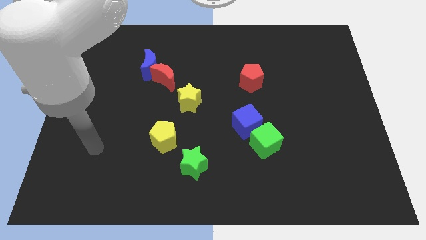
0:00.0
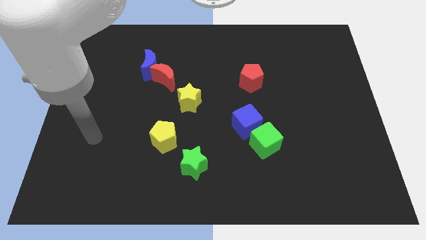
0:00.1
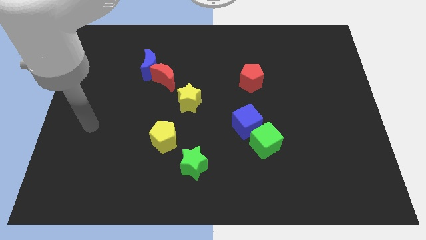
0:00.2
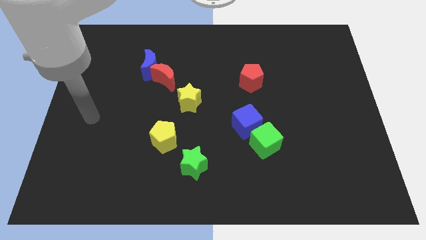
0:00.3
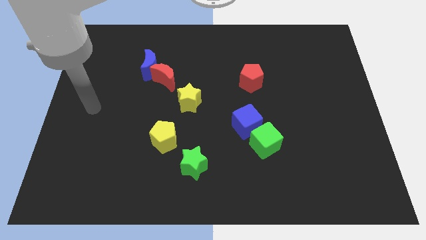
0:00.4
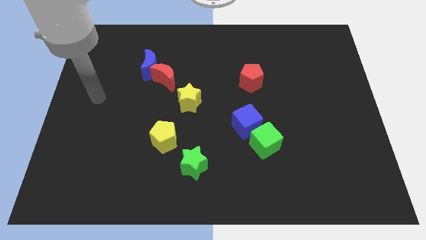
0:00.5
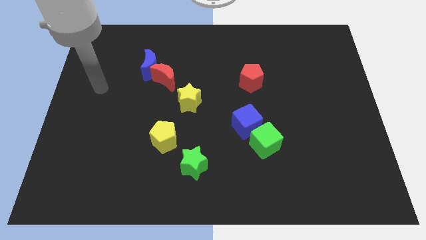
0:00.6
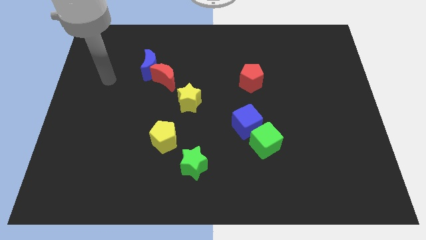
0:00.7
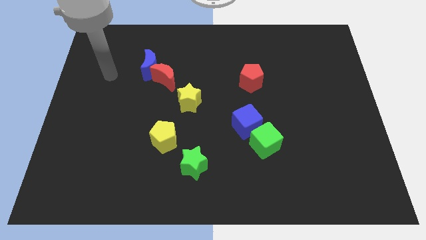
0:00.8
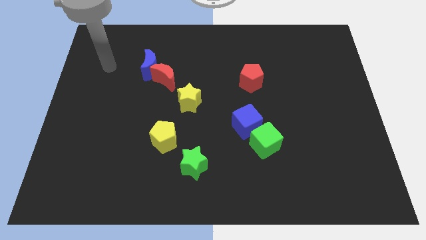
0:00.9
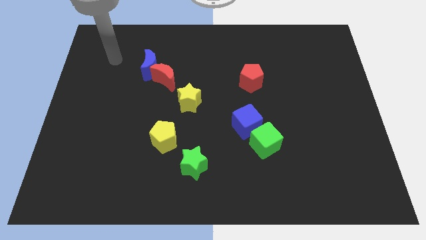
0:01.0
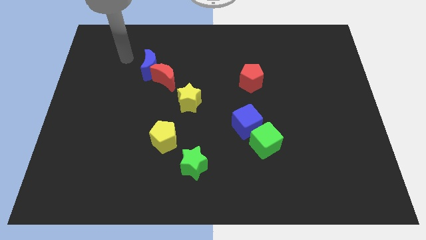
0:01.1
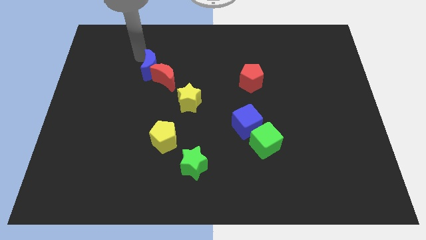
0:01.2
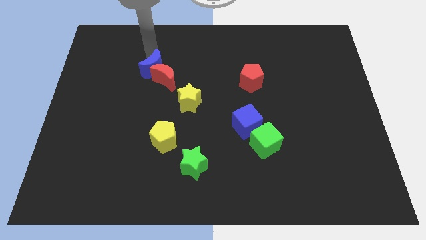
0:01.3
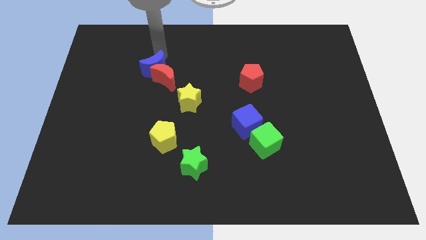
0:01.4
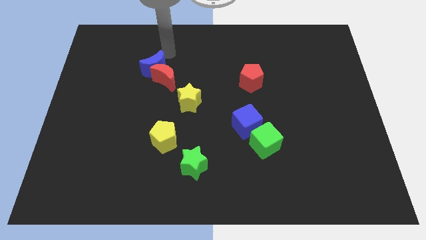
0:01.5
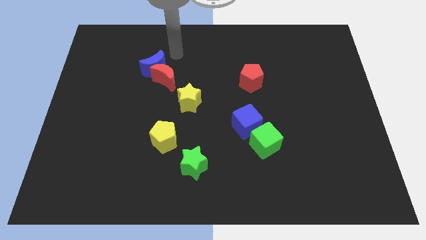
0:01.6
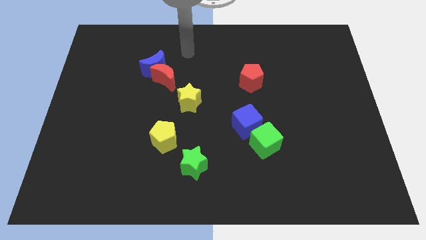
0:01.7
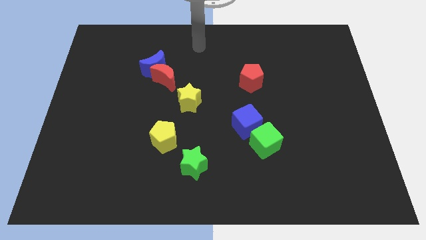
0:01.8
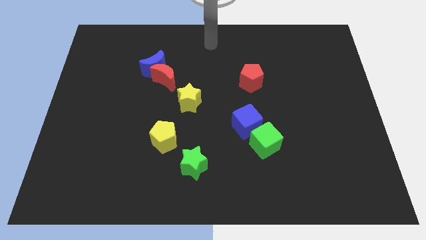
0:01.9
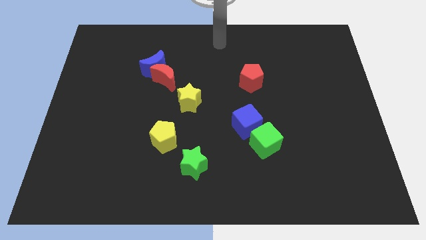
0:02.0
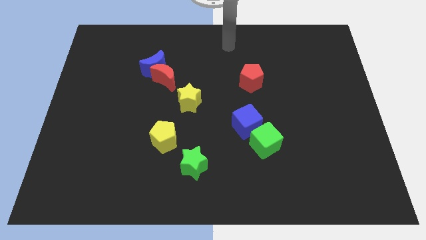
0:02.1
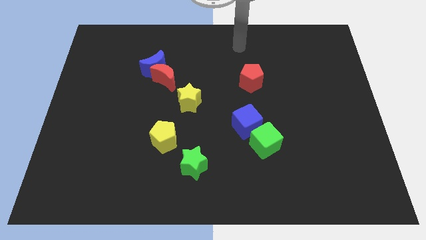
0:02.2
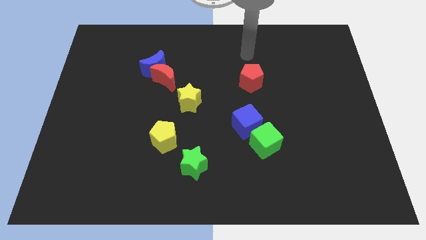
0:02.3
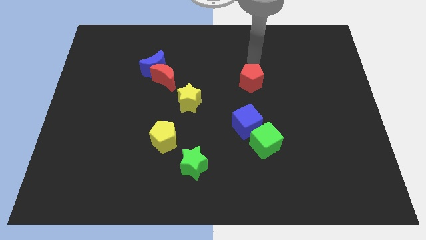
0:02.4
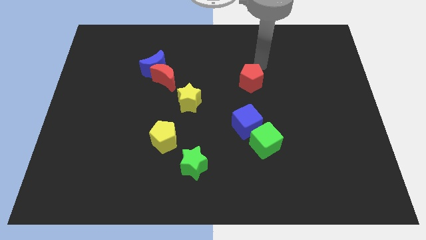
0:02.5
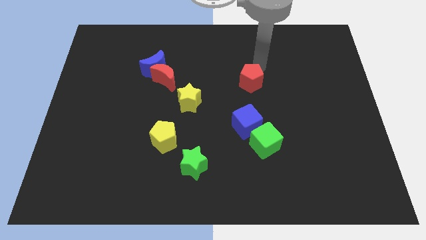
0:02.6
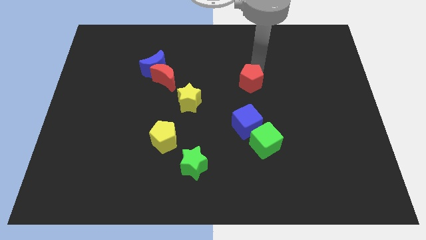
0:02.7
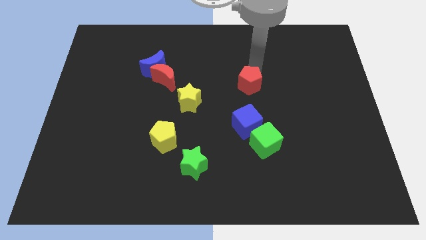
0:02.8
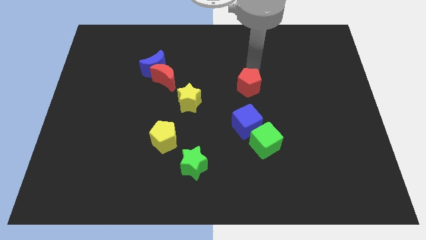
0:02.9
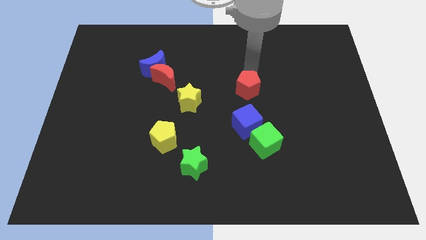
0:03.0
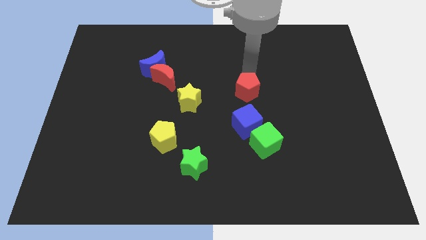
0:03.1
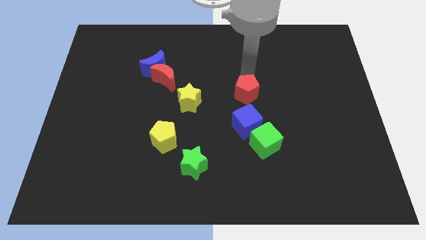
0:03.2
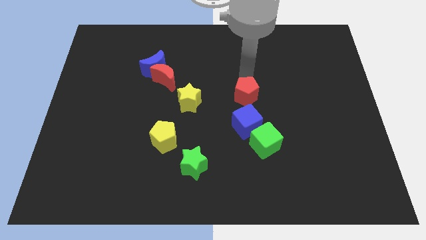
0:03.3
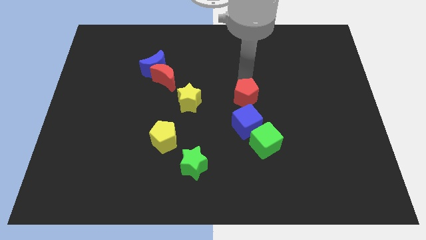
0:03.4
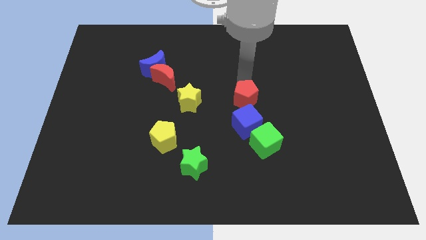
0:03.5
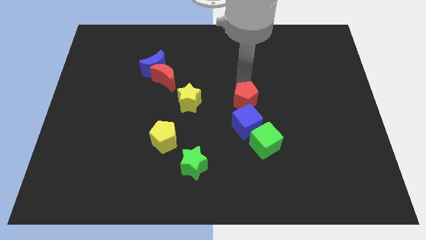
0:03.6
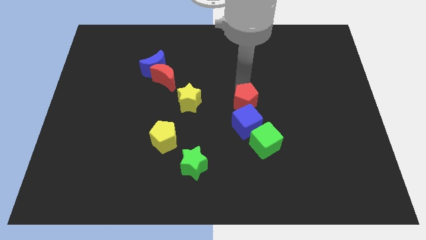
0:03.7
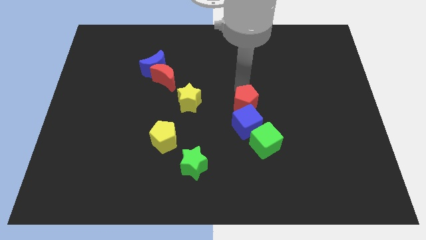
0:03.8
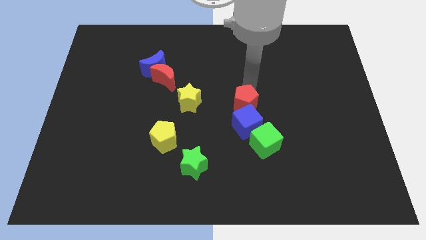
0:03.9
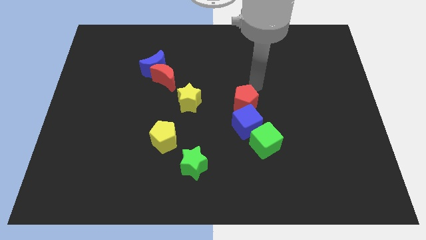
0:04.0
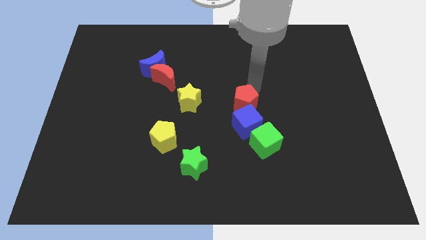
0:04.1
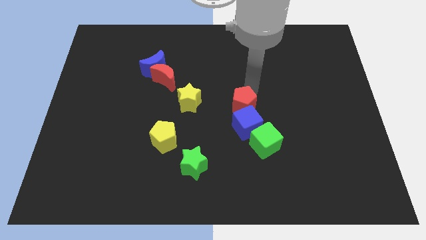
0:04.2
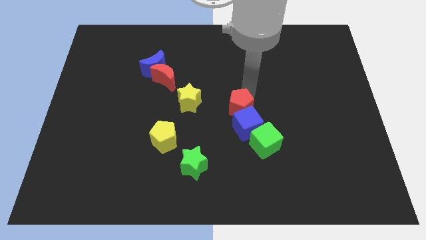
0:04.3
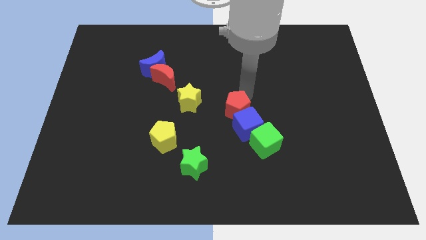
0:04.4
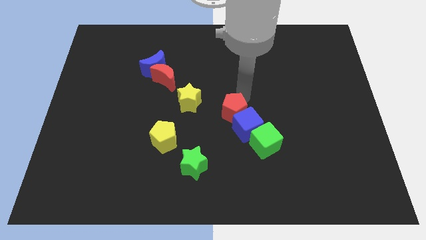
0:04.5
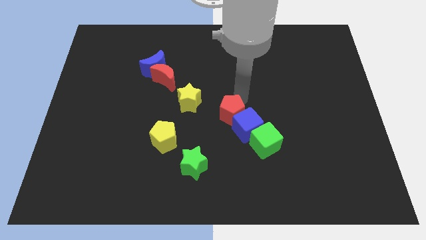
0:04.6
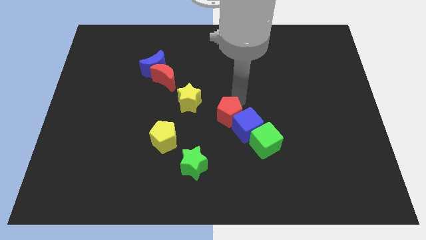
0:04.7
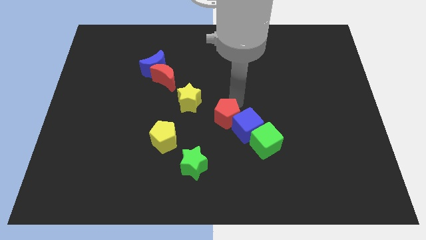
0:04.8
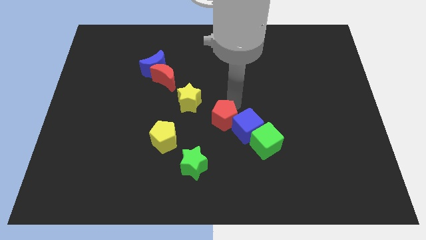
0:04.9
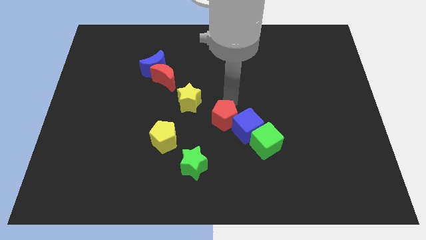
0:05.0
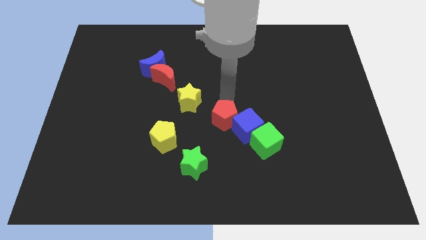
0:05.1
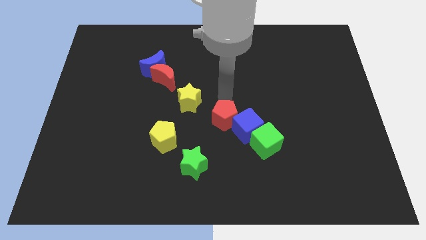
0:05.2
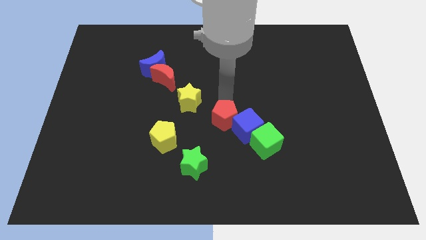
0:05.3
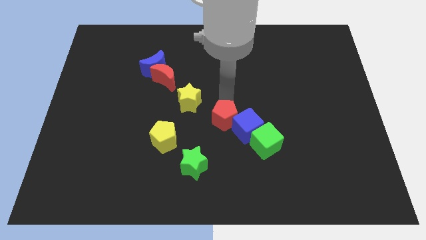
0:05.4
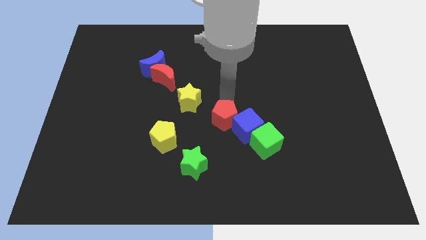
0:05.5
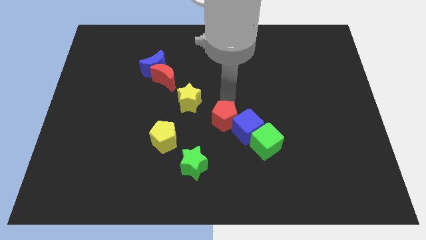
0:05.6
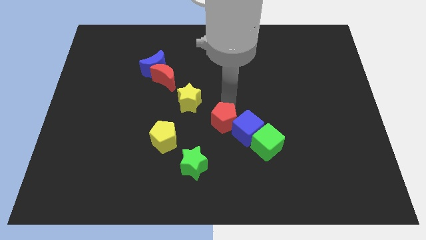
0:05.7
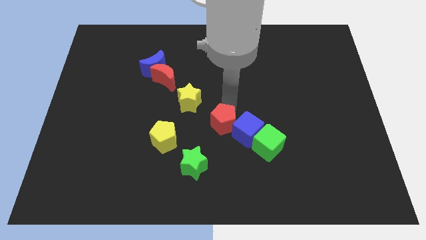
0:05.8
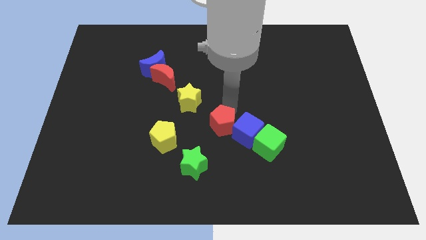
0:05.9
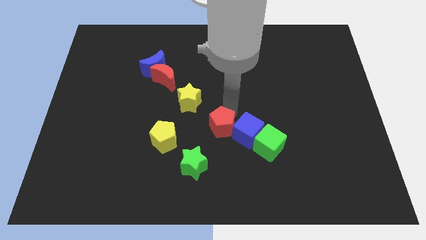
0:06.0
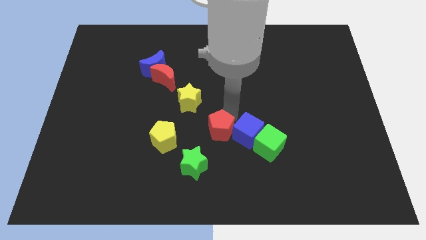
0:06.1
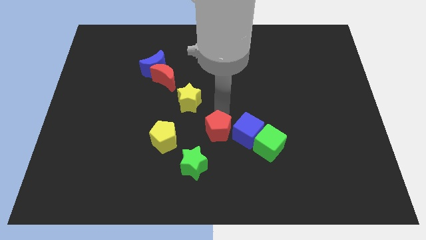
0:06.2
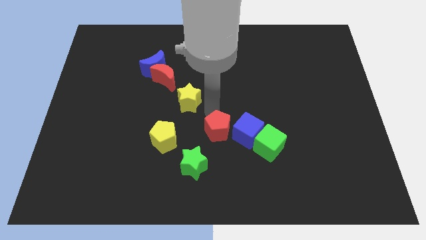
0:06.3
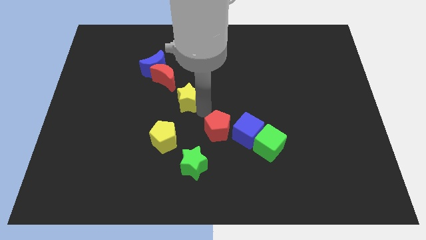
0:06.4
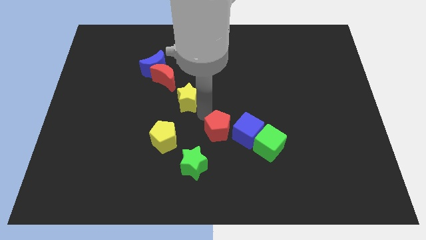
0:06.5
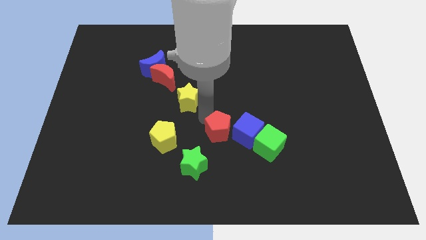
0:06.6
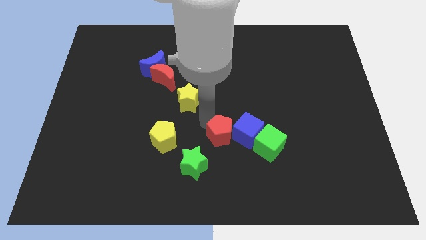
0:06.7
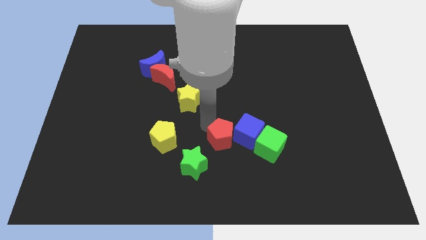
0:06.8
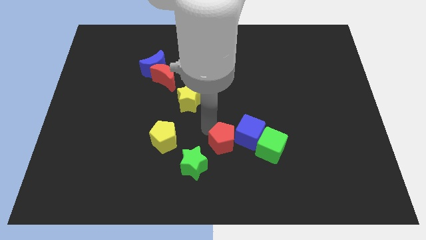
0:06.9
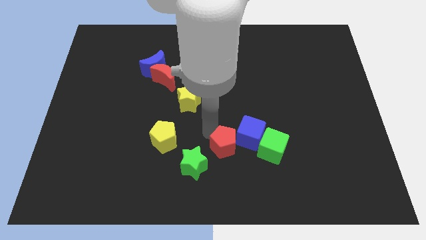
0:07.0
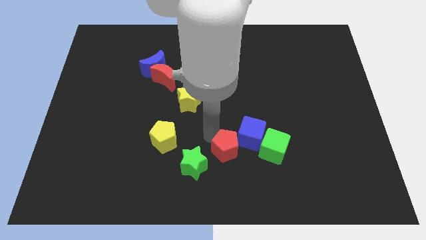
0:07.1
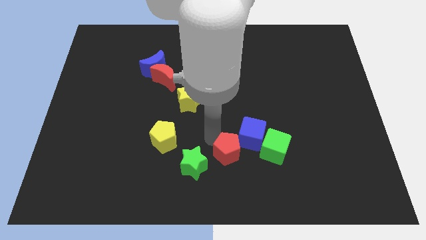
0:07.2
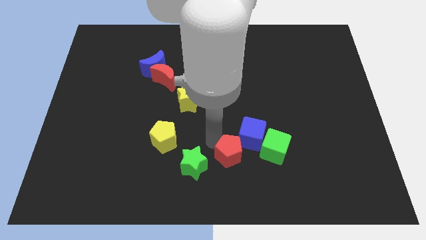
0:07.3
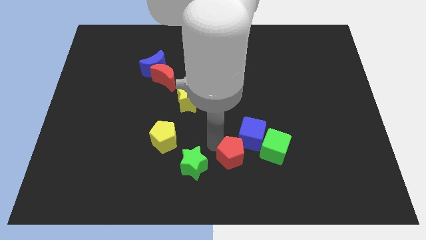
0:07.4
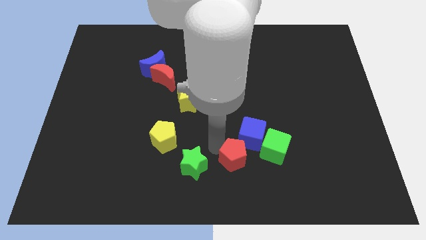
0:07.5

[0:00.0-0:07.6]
put the red pentagon to the bottom left side of the green cube
